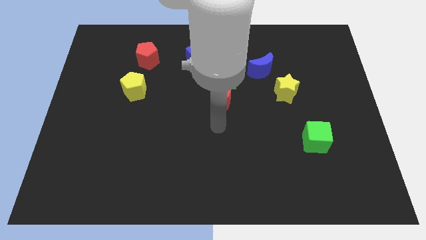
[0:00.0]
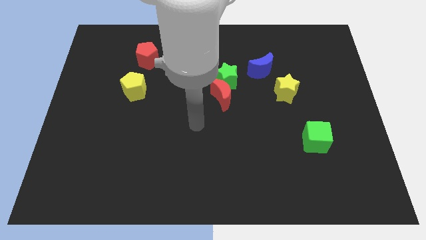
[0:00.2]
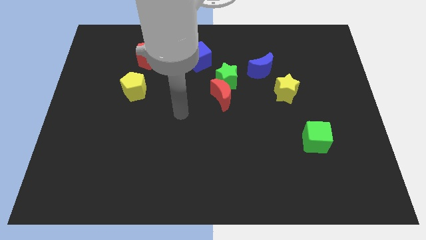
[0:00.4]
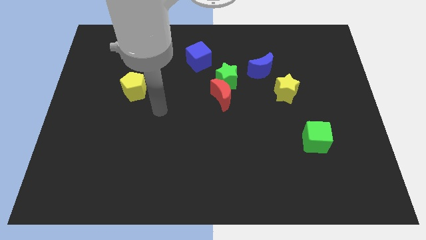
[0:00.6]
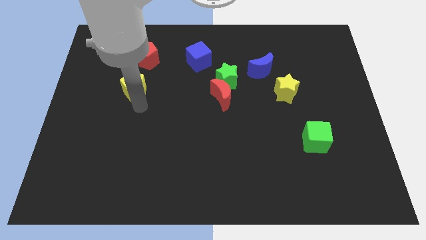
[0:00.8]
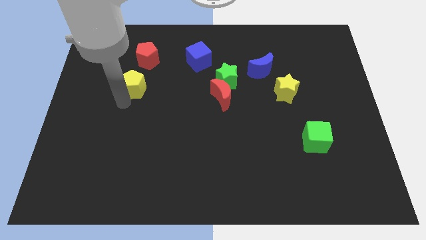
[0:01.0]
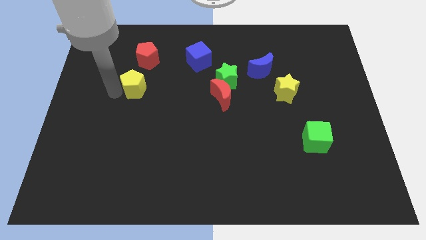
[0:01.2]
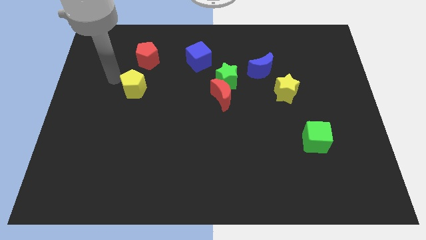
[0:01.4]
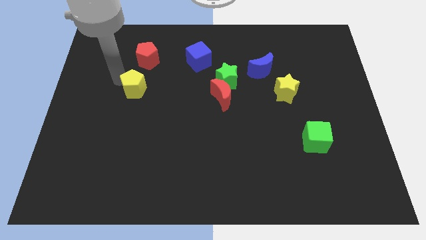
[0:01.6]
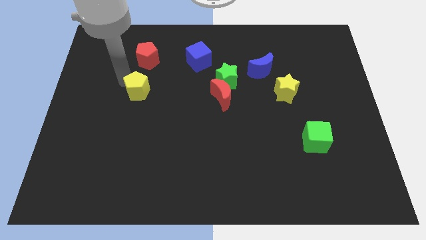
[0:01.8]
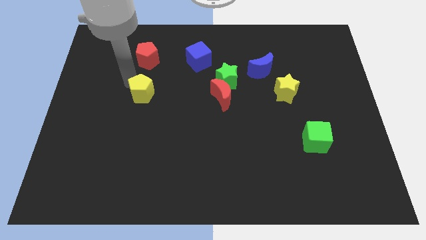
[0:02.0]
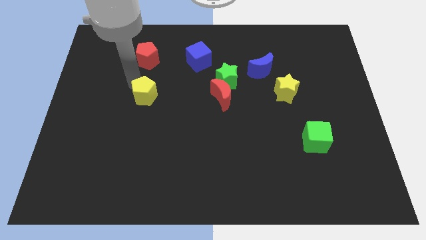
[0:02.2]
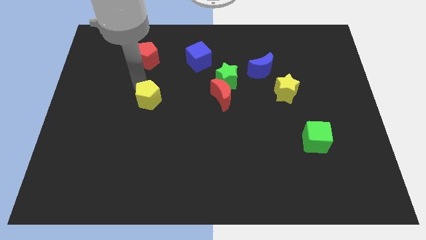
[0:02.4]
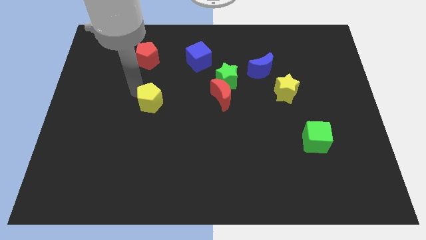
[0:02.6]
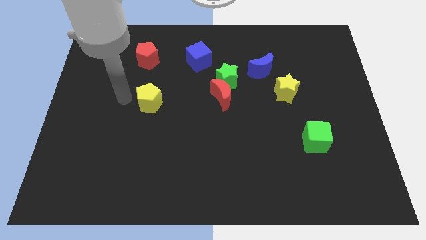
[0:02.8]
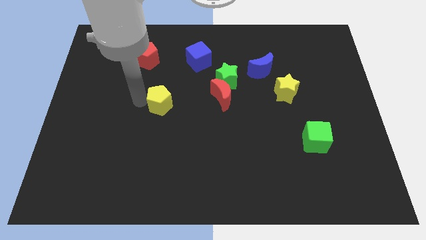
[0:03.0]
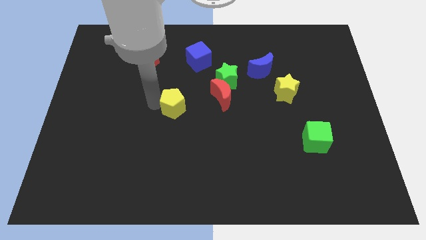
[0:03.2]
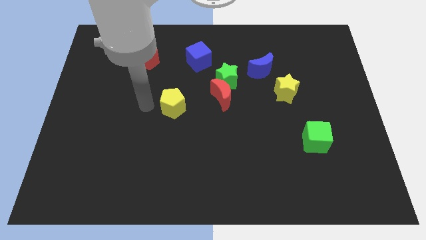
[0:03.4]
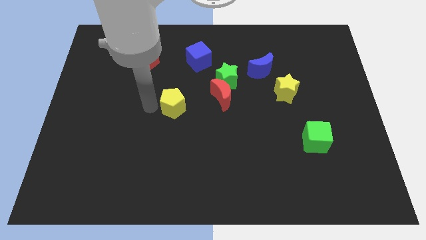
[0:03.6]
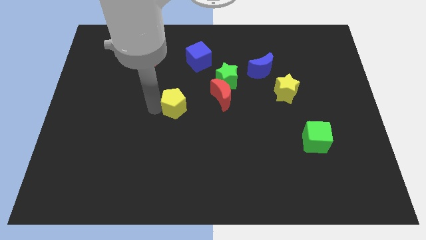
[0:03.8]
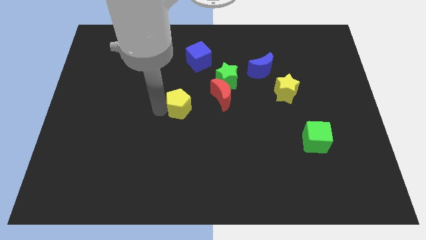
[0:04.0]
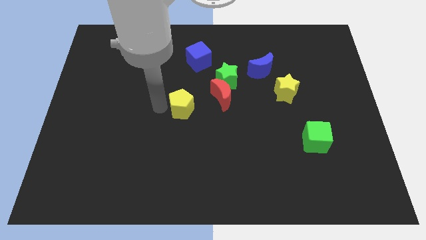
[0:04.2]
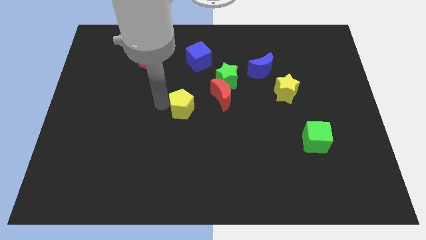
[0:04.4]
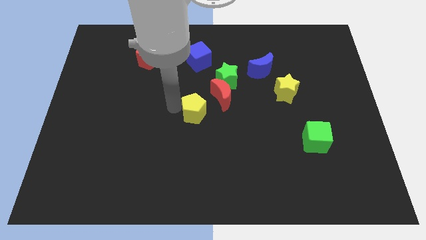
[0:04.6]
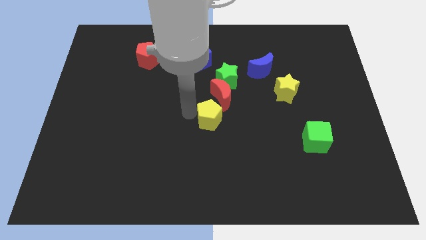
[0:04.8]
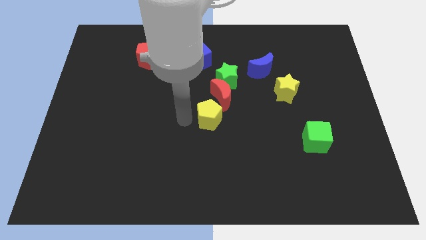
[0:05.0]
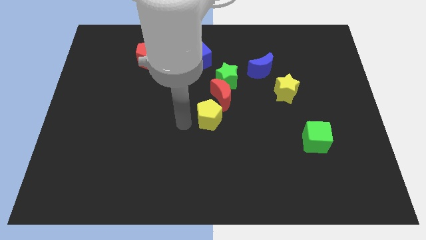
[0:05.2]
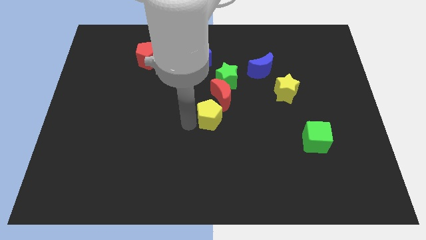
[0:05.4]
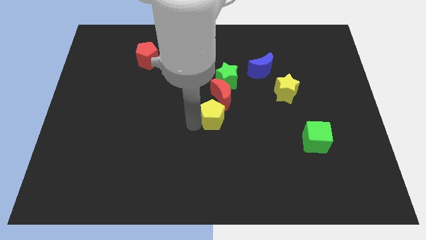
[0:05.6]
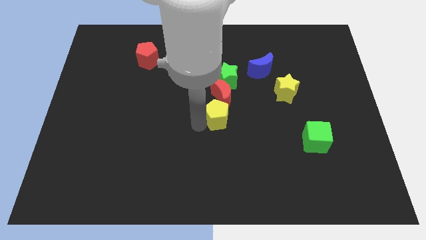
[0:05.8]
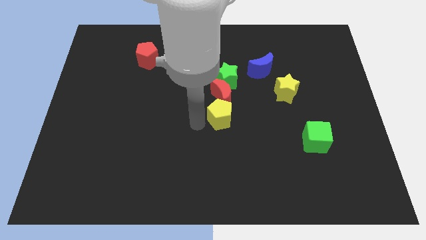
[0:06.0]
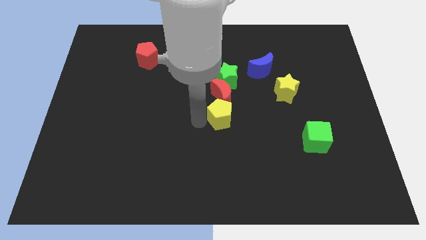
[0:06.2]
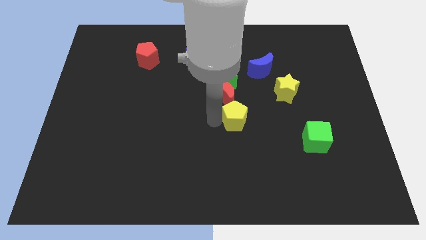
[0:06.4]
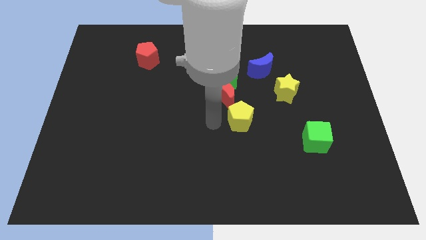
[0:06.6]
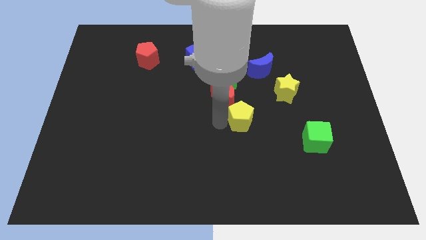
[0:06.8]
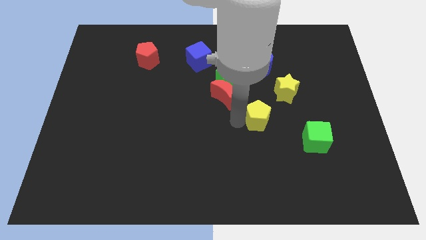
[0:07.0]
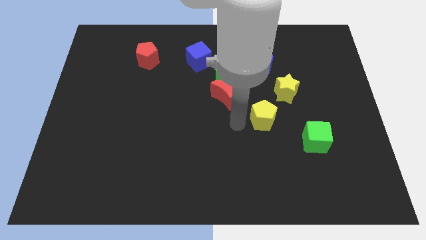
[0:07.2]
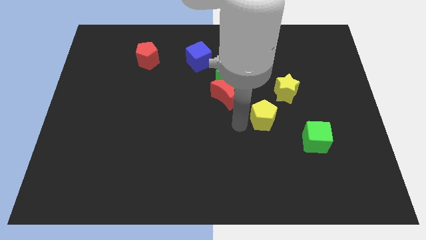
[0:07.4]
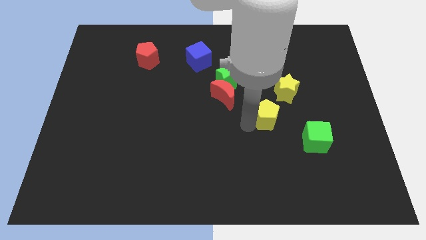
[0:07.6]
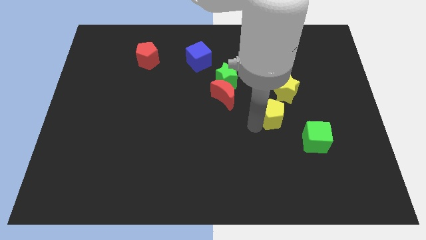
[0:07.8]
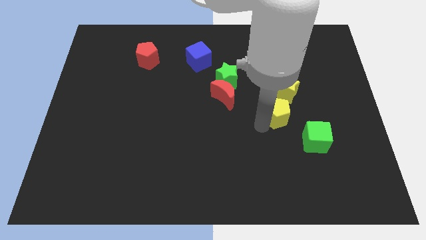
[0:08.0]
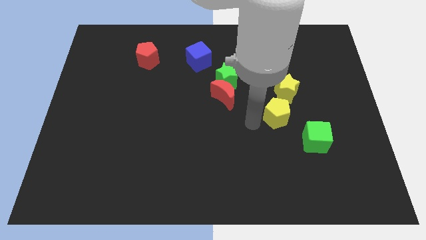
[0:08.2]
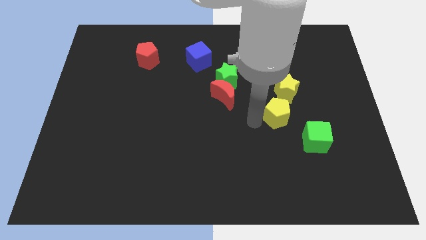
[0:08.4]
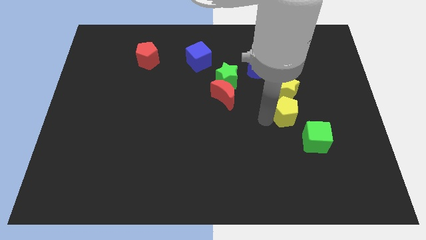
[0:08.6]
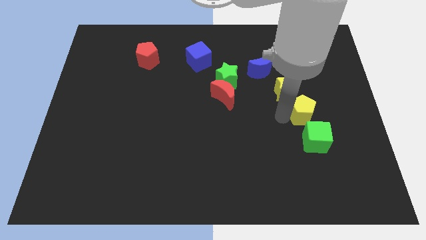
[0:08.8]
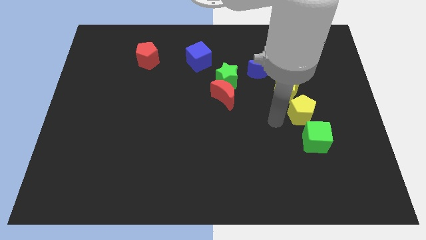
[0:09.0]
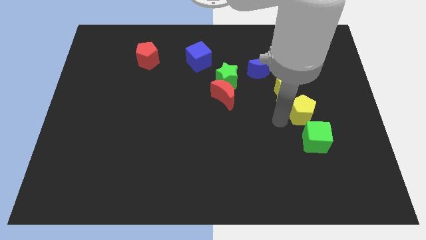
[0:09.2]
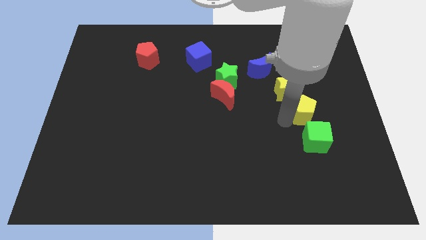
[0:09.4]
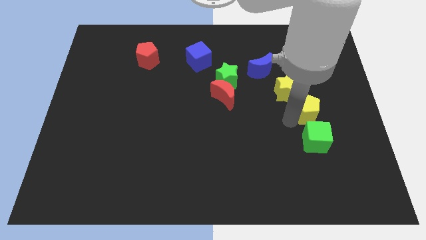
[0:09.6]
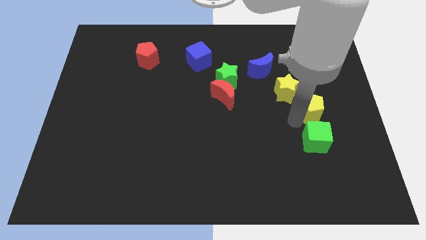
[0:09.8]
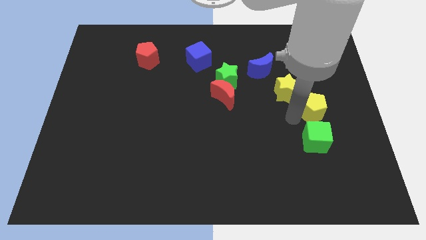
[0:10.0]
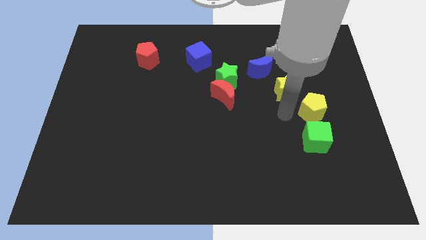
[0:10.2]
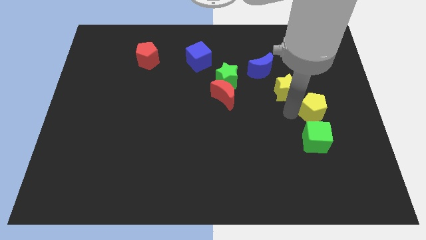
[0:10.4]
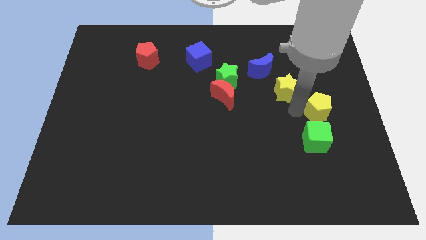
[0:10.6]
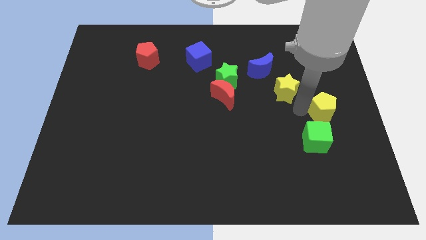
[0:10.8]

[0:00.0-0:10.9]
put the yellow pentagon to the center right

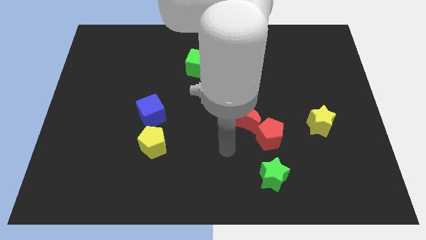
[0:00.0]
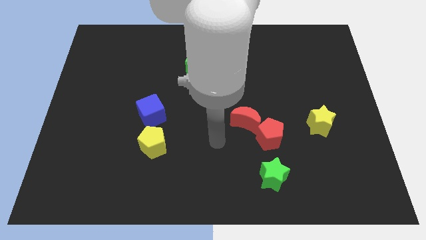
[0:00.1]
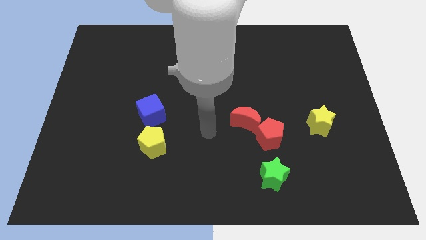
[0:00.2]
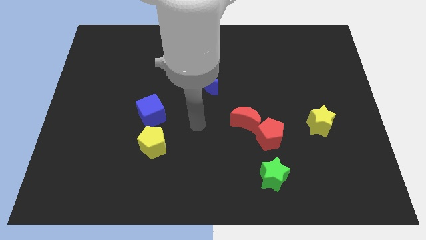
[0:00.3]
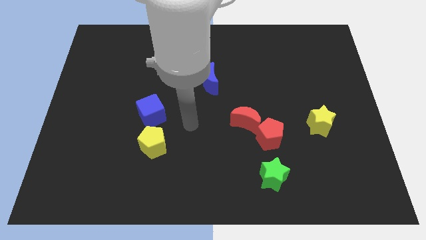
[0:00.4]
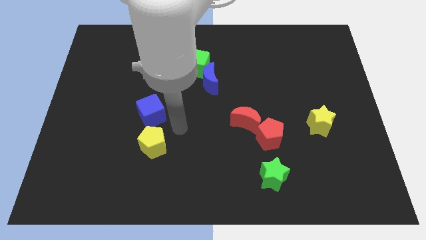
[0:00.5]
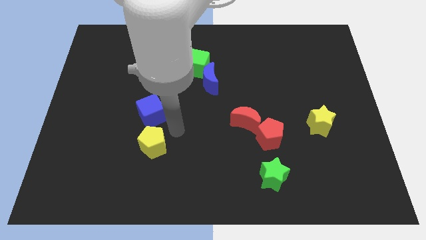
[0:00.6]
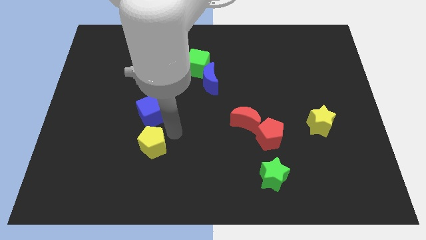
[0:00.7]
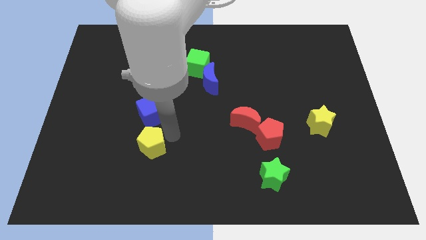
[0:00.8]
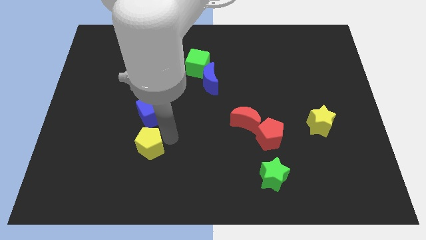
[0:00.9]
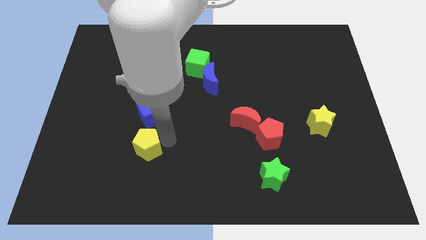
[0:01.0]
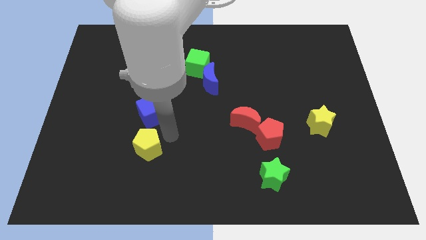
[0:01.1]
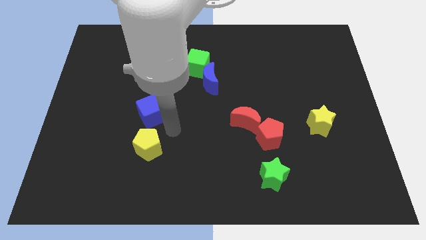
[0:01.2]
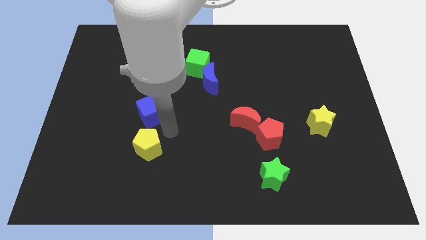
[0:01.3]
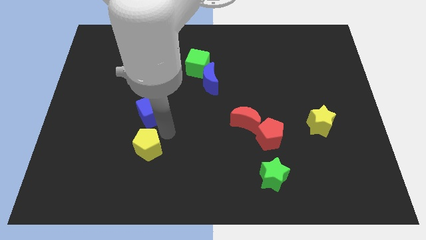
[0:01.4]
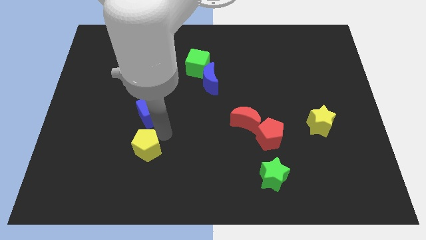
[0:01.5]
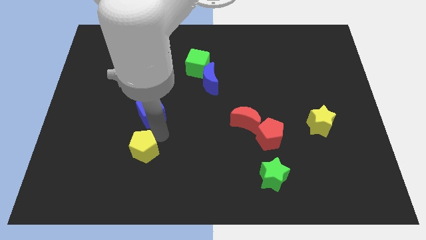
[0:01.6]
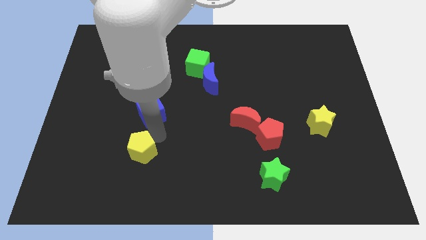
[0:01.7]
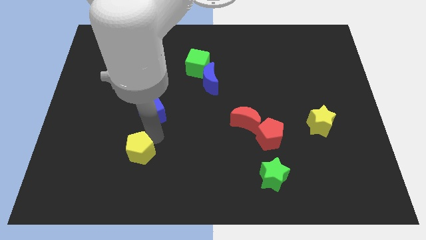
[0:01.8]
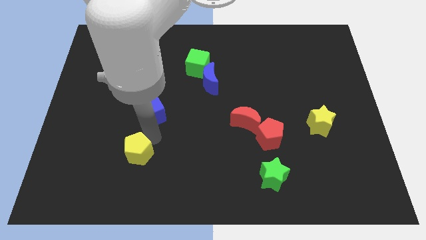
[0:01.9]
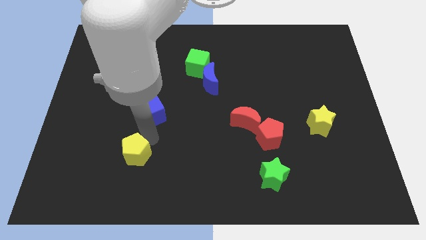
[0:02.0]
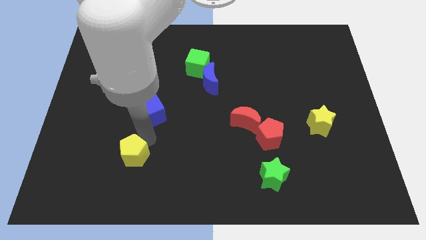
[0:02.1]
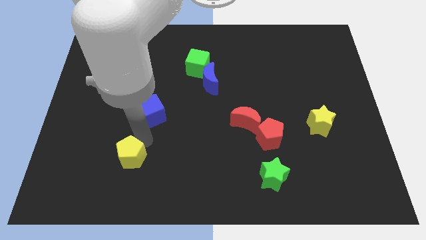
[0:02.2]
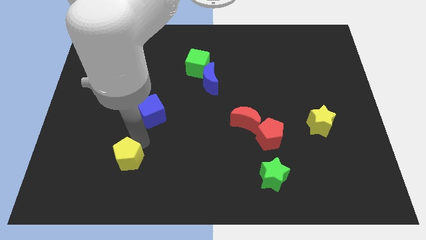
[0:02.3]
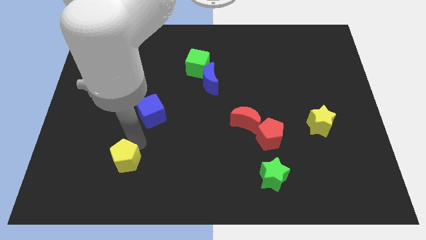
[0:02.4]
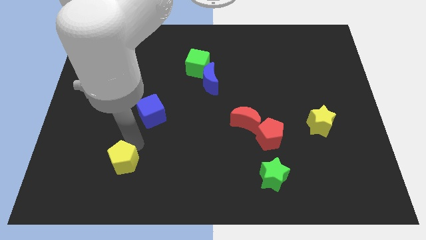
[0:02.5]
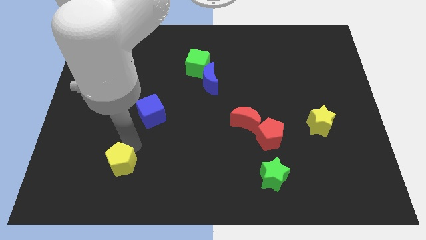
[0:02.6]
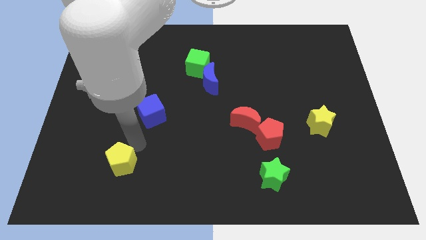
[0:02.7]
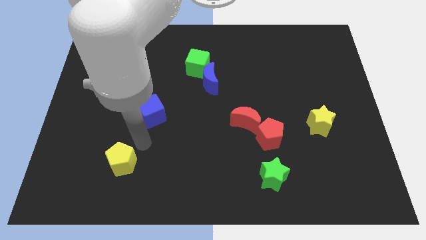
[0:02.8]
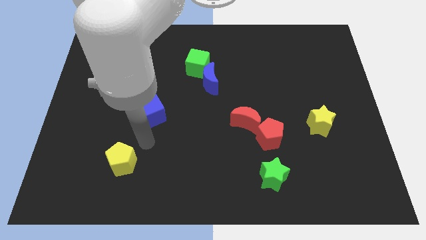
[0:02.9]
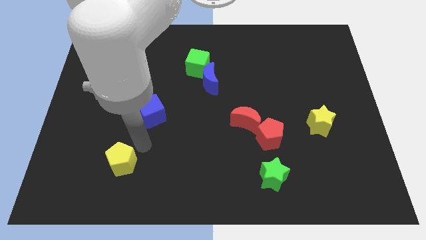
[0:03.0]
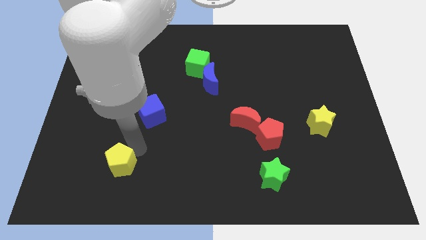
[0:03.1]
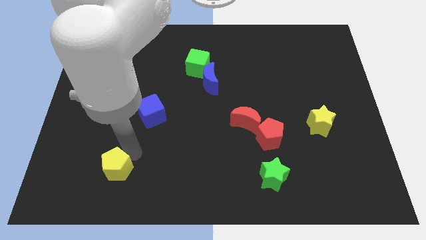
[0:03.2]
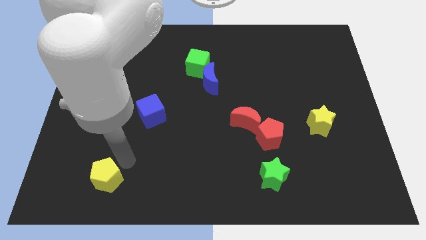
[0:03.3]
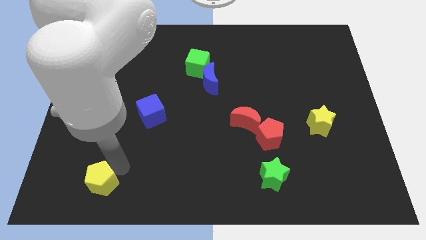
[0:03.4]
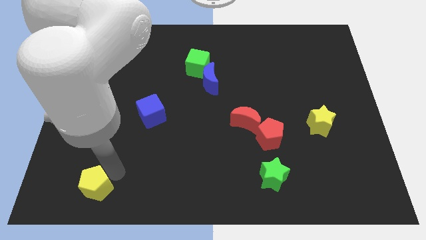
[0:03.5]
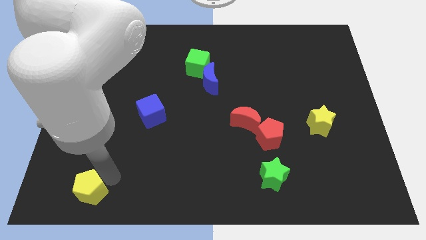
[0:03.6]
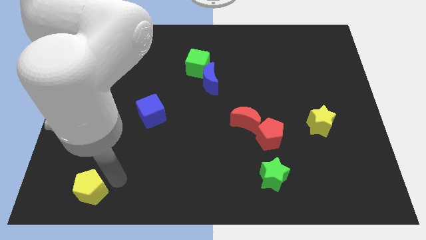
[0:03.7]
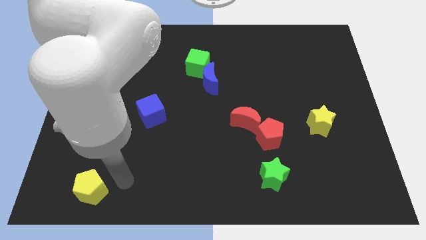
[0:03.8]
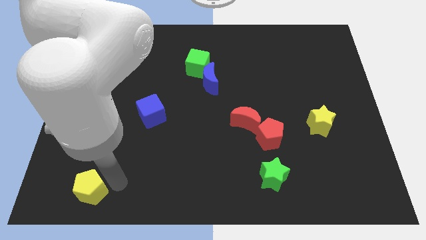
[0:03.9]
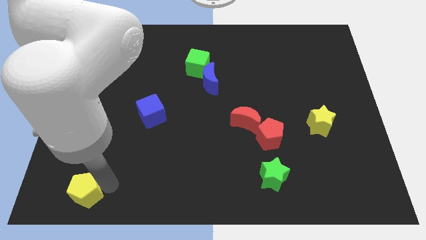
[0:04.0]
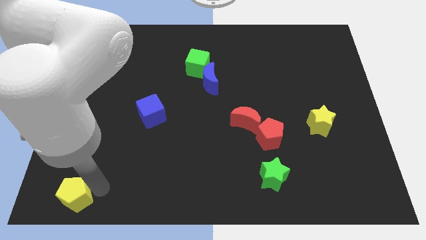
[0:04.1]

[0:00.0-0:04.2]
move the yellow pentagon to the lower left corner
